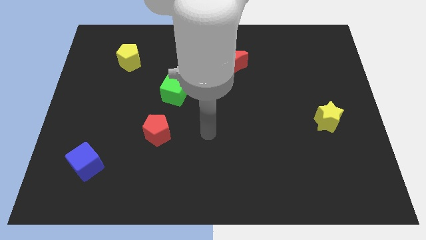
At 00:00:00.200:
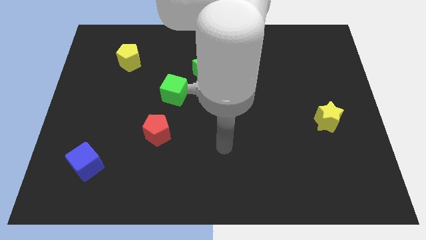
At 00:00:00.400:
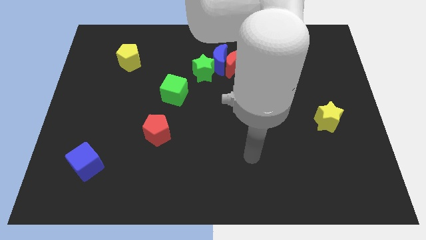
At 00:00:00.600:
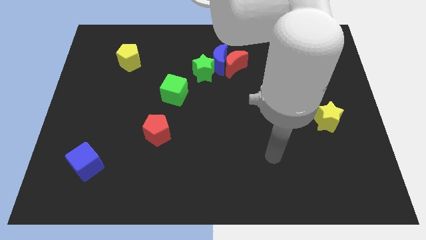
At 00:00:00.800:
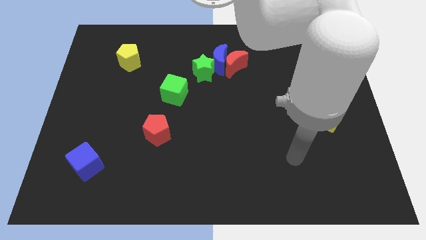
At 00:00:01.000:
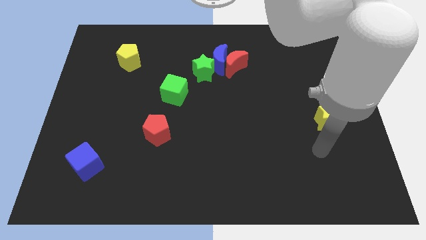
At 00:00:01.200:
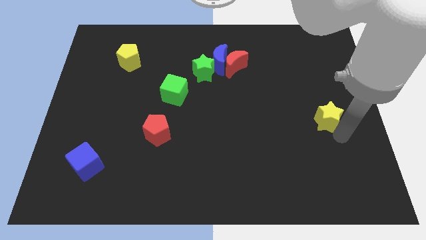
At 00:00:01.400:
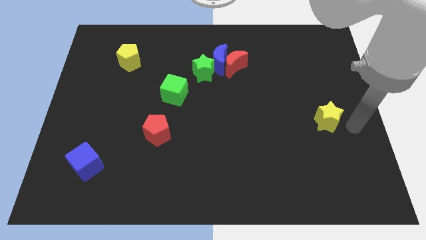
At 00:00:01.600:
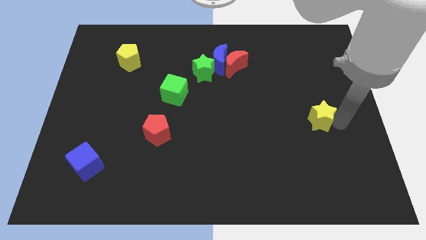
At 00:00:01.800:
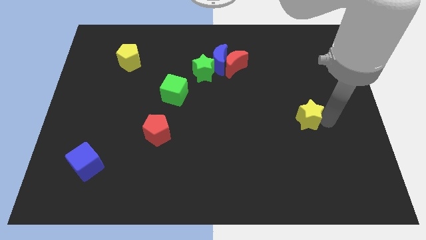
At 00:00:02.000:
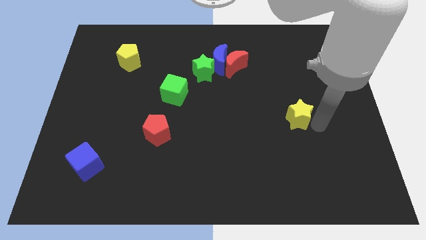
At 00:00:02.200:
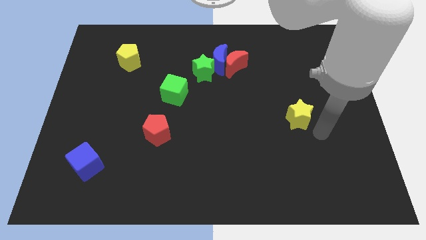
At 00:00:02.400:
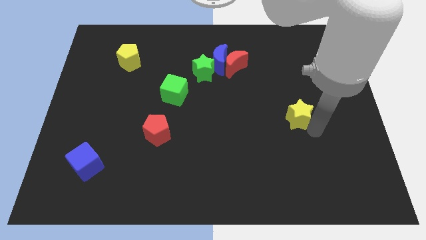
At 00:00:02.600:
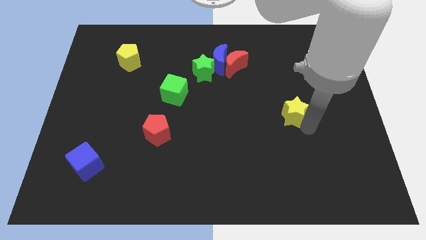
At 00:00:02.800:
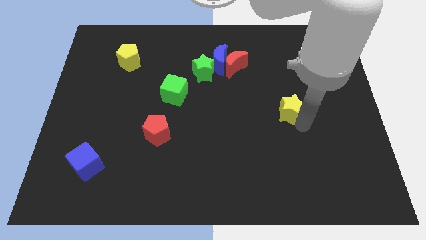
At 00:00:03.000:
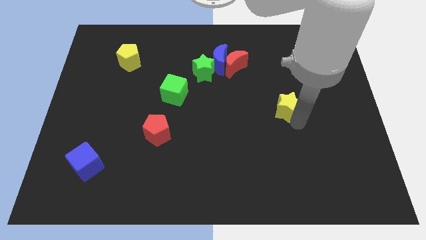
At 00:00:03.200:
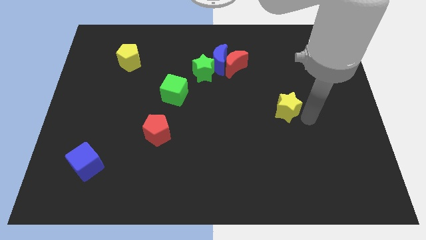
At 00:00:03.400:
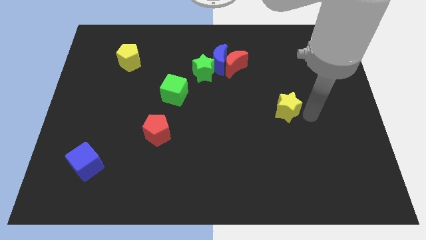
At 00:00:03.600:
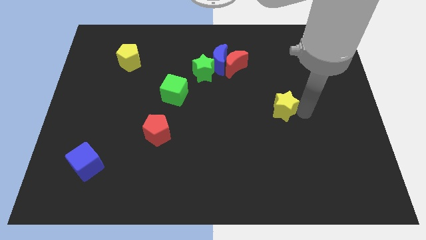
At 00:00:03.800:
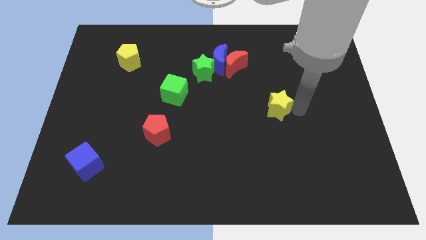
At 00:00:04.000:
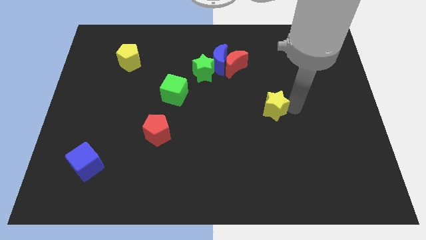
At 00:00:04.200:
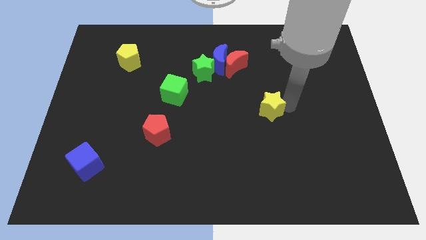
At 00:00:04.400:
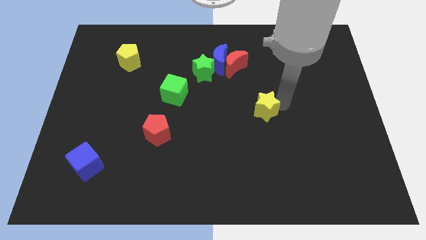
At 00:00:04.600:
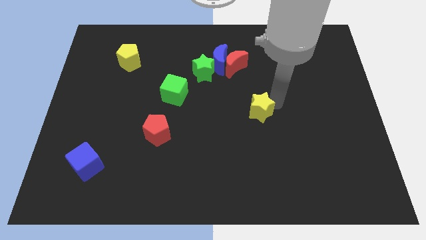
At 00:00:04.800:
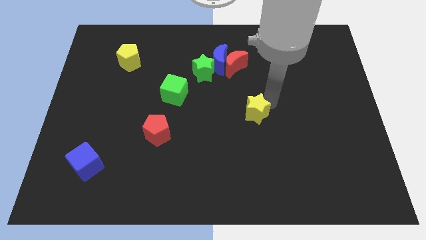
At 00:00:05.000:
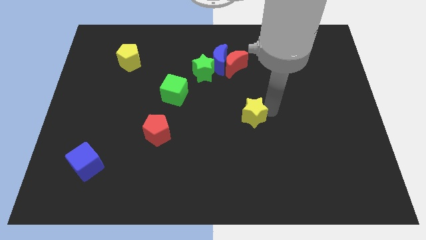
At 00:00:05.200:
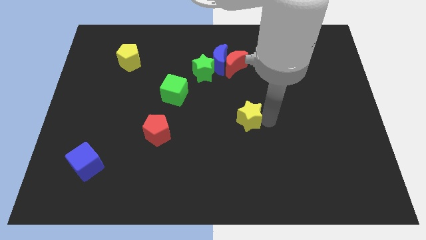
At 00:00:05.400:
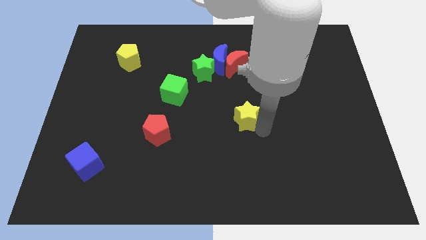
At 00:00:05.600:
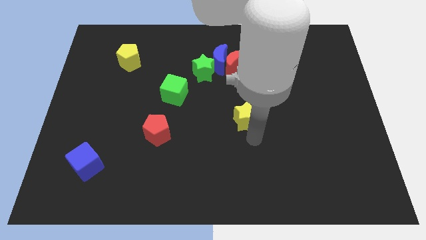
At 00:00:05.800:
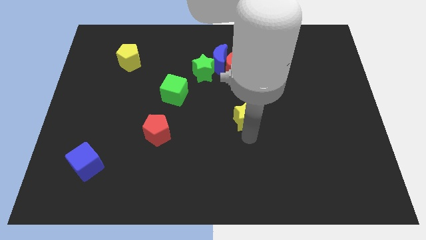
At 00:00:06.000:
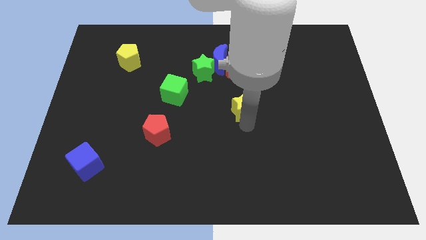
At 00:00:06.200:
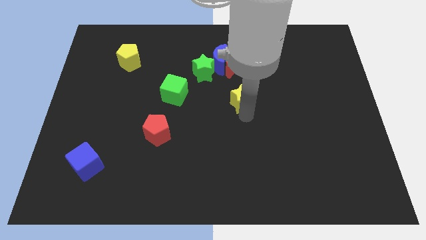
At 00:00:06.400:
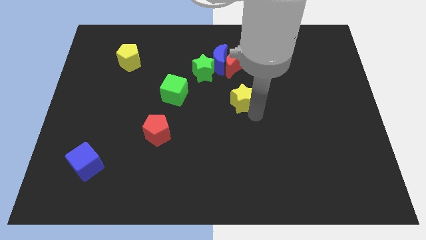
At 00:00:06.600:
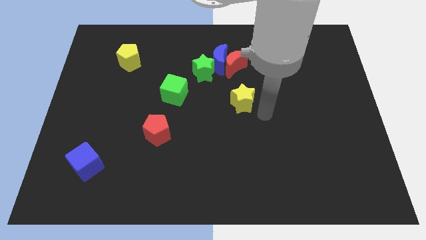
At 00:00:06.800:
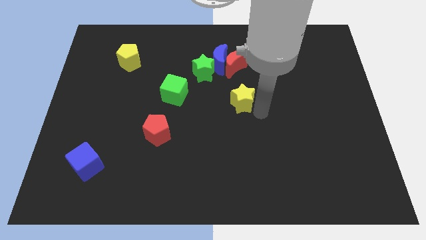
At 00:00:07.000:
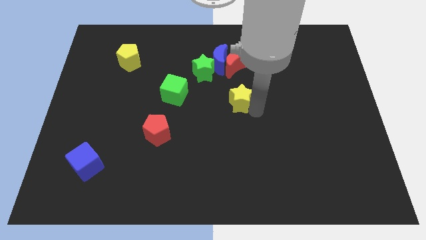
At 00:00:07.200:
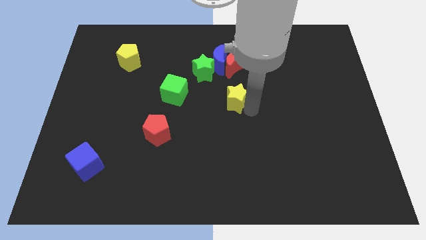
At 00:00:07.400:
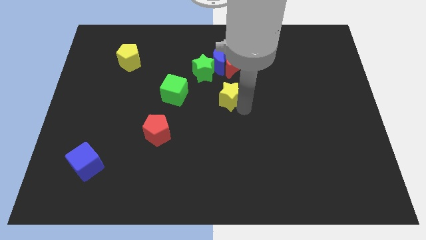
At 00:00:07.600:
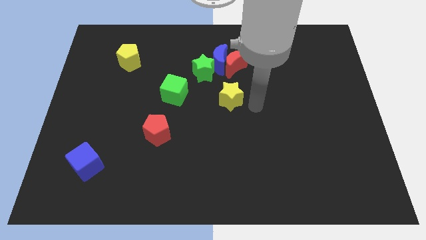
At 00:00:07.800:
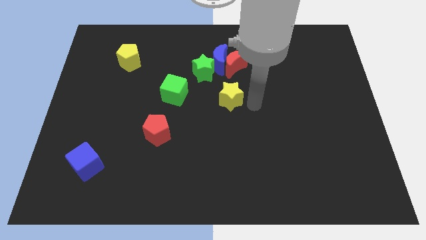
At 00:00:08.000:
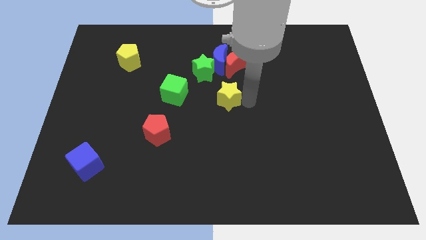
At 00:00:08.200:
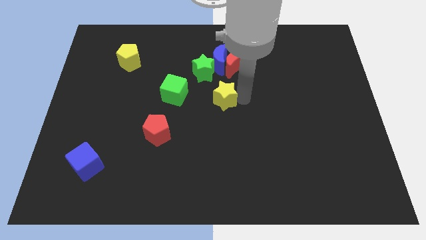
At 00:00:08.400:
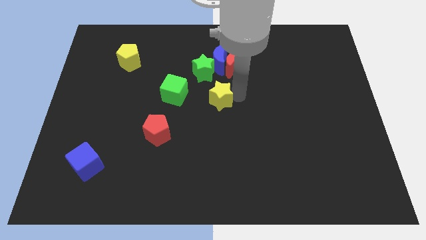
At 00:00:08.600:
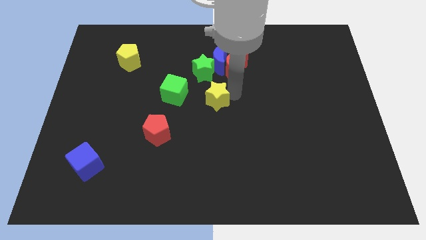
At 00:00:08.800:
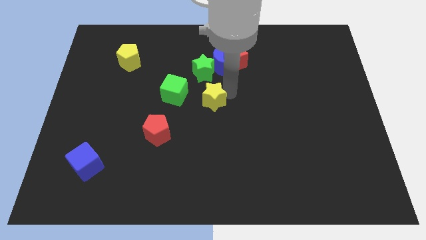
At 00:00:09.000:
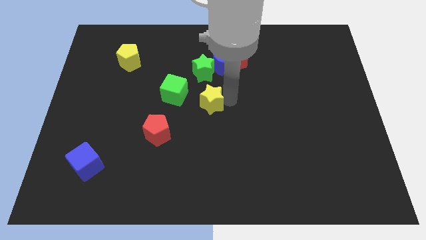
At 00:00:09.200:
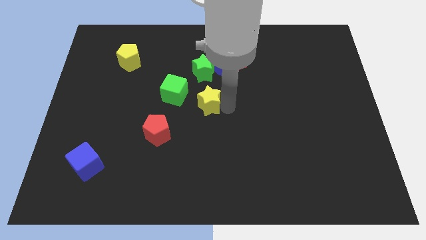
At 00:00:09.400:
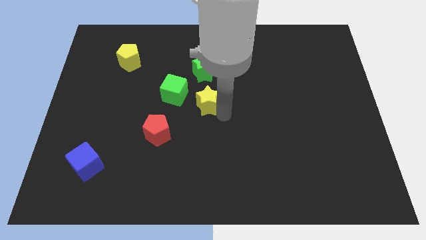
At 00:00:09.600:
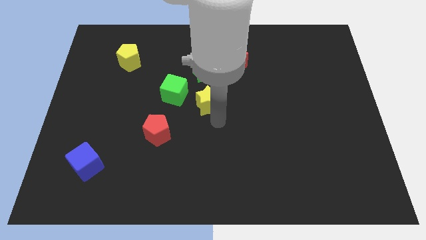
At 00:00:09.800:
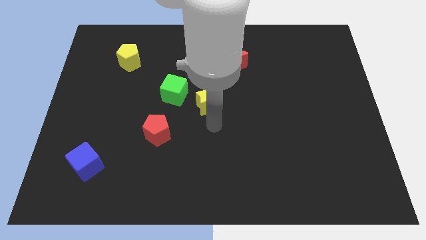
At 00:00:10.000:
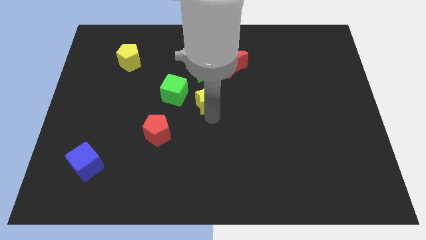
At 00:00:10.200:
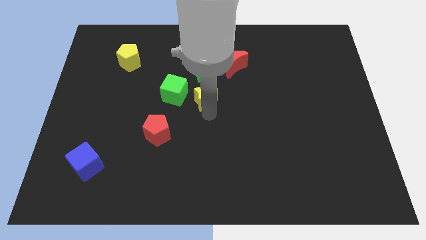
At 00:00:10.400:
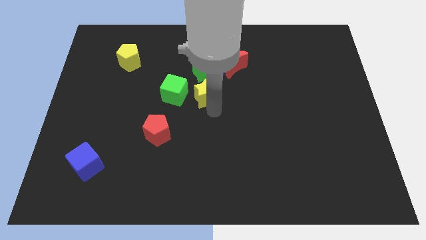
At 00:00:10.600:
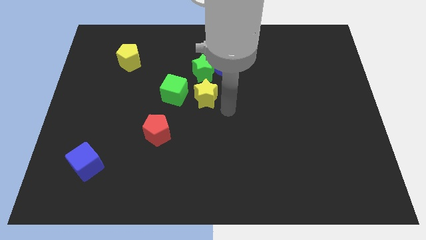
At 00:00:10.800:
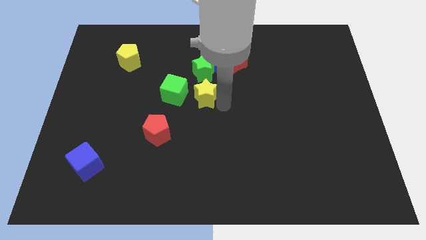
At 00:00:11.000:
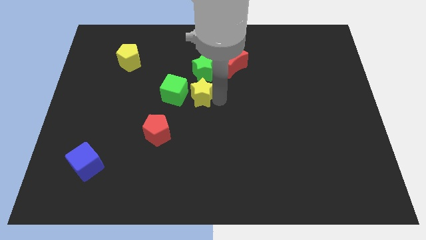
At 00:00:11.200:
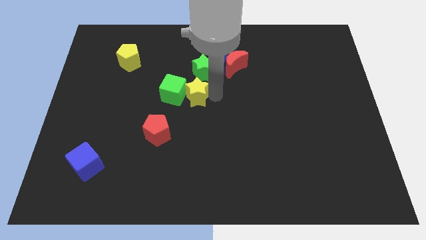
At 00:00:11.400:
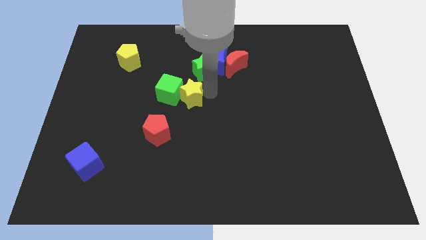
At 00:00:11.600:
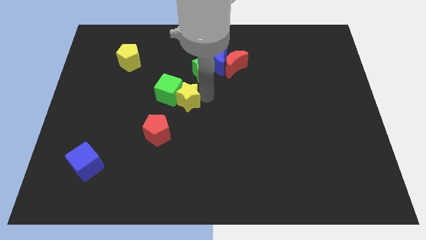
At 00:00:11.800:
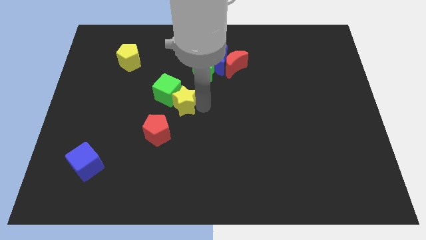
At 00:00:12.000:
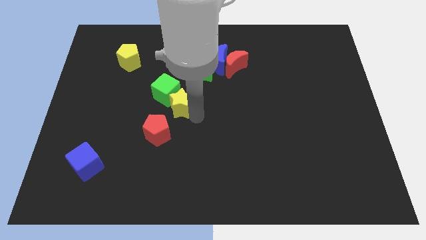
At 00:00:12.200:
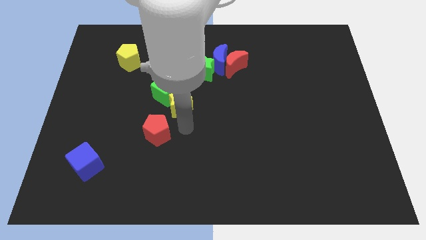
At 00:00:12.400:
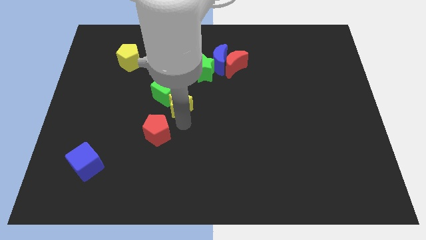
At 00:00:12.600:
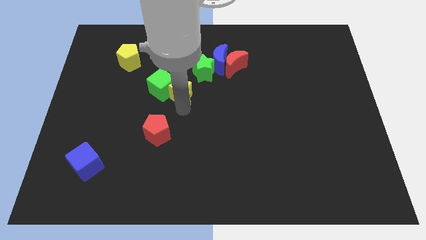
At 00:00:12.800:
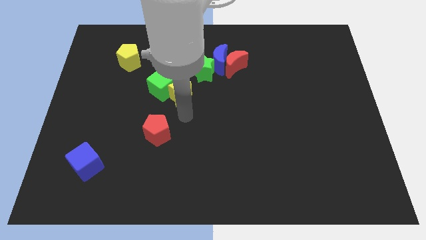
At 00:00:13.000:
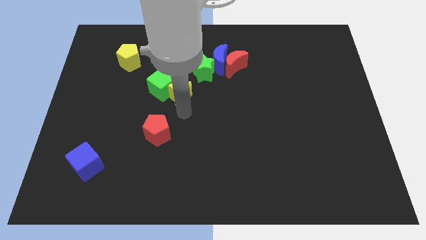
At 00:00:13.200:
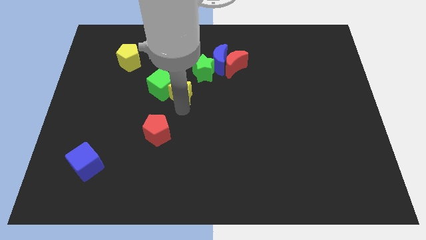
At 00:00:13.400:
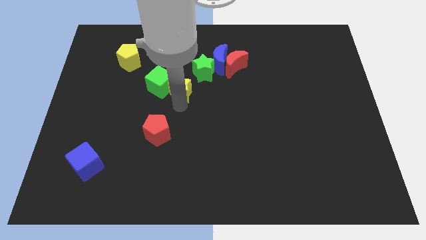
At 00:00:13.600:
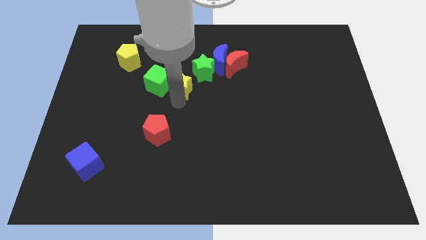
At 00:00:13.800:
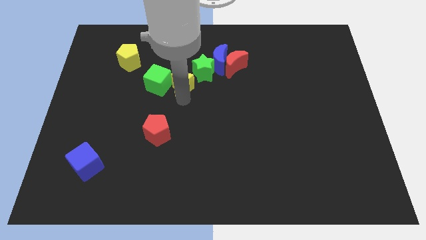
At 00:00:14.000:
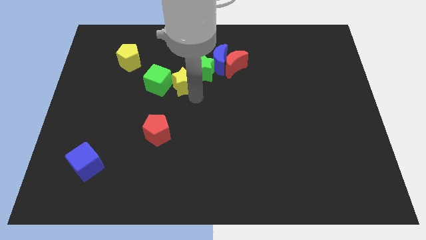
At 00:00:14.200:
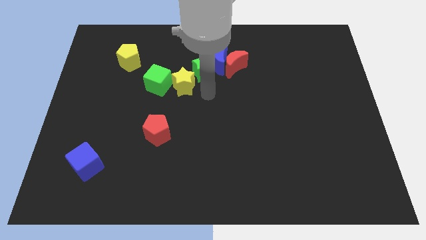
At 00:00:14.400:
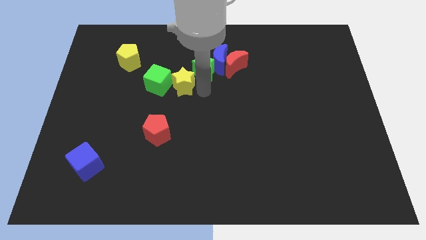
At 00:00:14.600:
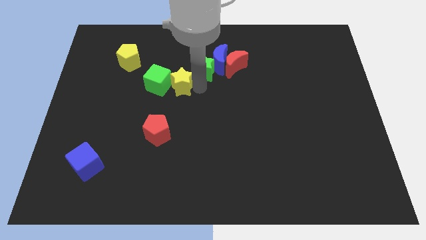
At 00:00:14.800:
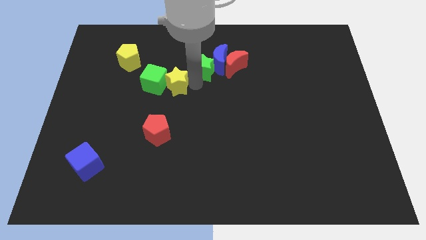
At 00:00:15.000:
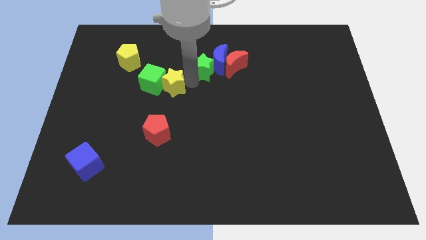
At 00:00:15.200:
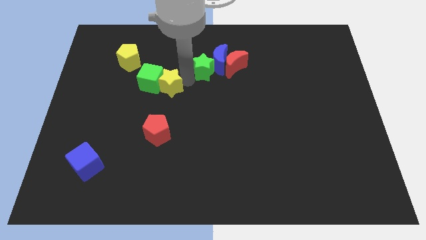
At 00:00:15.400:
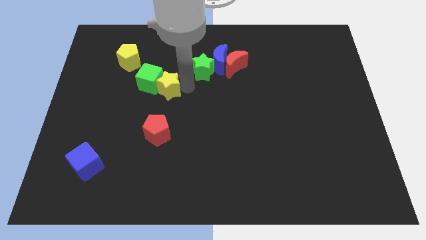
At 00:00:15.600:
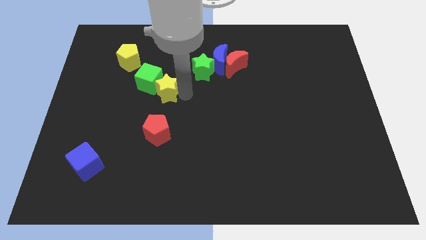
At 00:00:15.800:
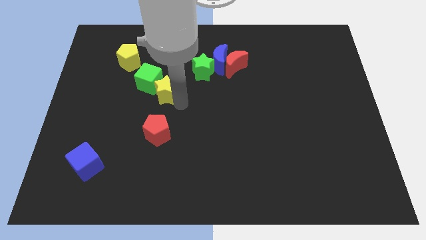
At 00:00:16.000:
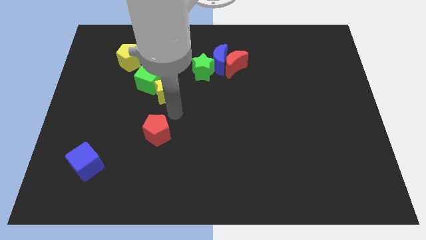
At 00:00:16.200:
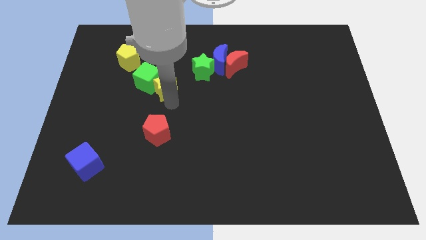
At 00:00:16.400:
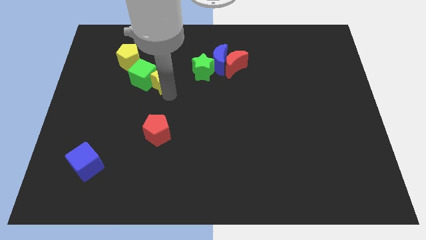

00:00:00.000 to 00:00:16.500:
slide the yellow star diagonally down and to the right of the yellow pentagon
